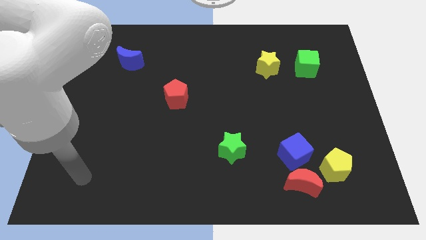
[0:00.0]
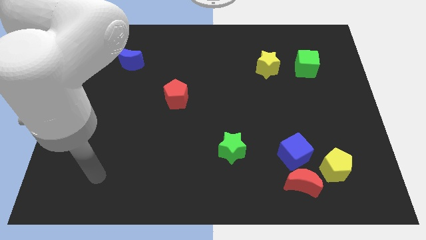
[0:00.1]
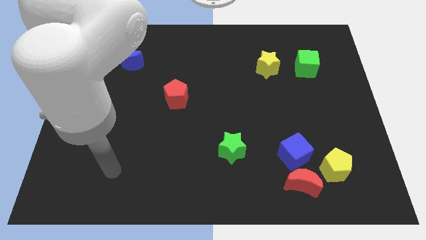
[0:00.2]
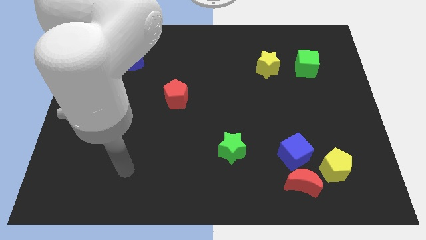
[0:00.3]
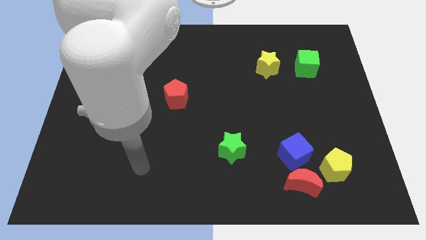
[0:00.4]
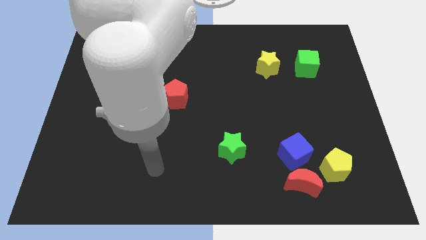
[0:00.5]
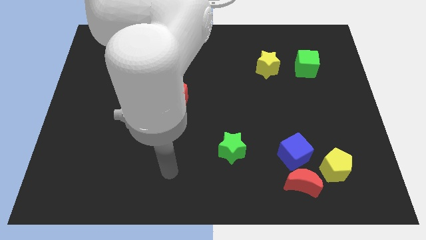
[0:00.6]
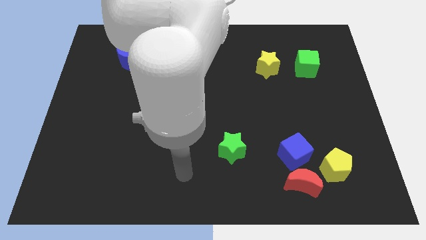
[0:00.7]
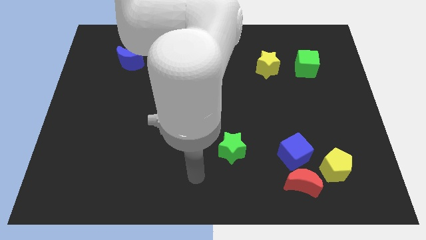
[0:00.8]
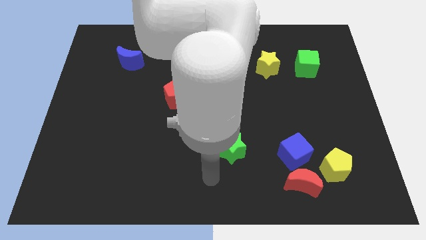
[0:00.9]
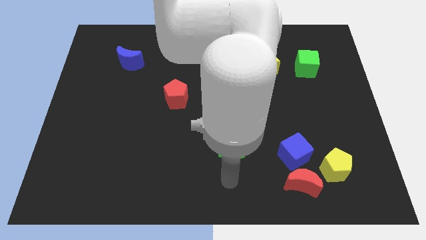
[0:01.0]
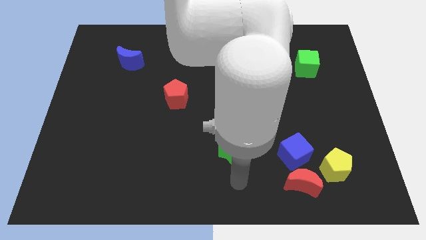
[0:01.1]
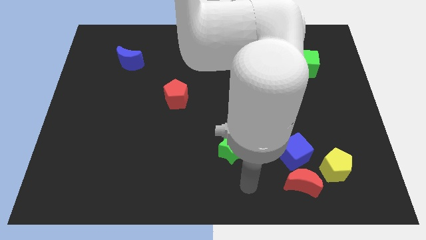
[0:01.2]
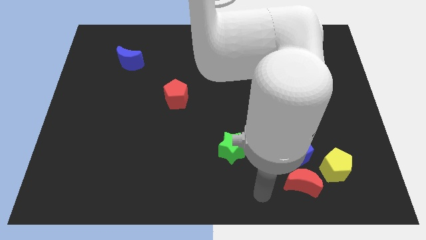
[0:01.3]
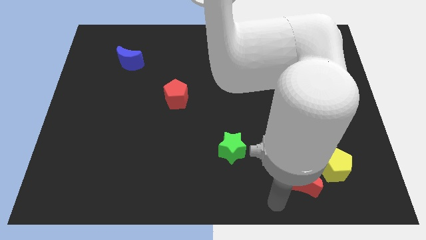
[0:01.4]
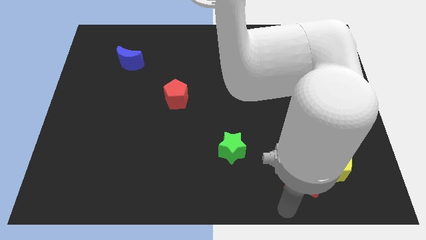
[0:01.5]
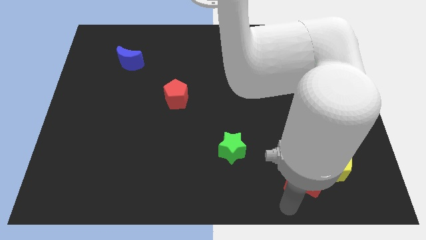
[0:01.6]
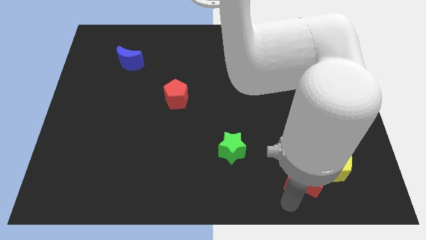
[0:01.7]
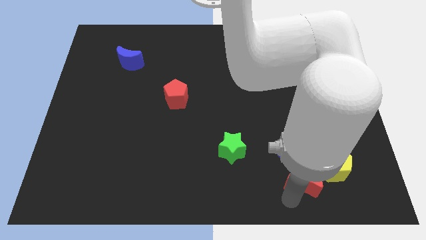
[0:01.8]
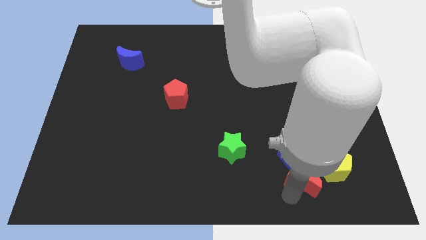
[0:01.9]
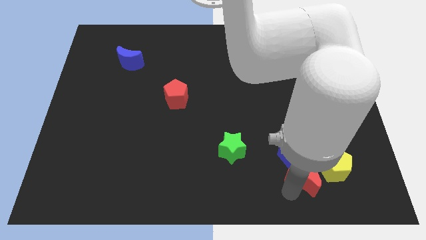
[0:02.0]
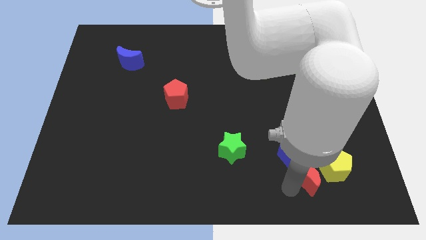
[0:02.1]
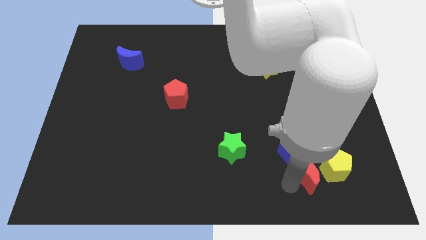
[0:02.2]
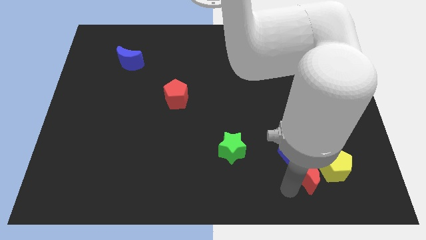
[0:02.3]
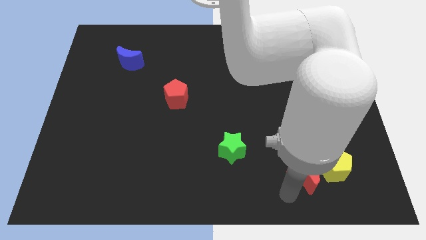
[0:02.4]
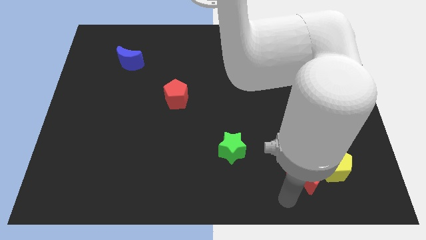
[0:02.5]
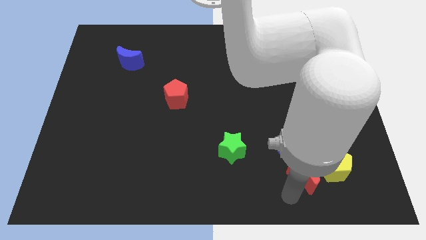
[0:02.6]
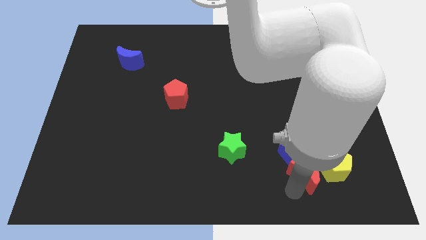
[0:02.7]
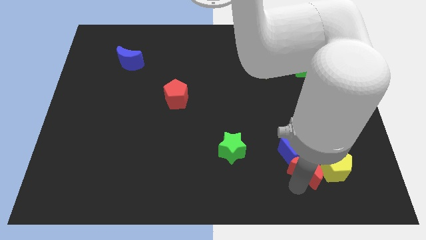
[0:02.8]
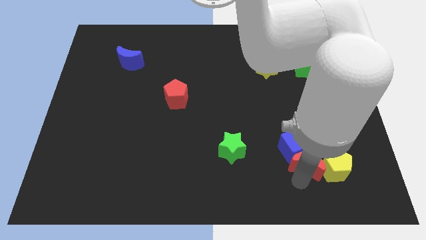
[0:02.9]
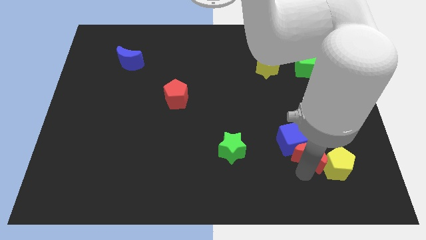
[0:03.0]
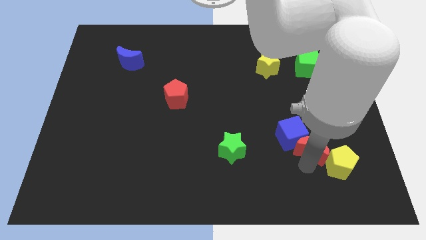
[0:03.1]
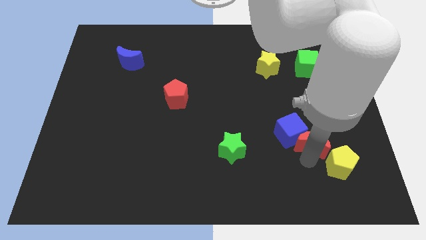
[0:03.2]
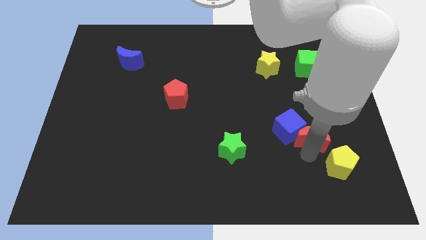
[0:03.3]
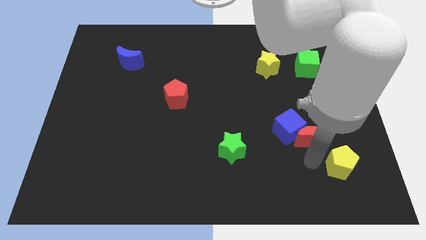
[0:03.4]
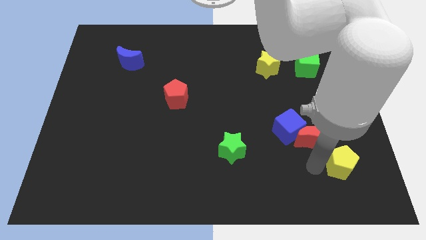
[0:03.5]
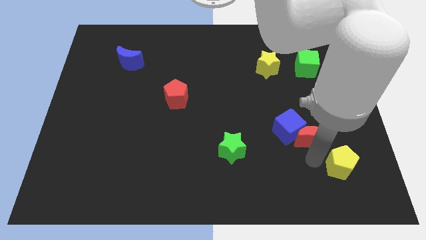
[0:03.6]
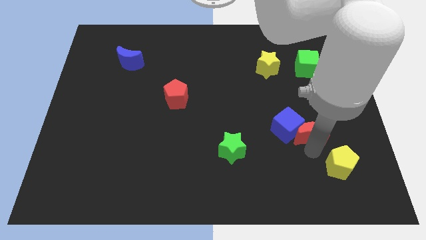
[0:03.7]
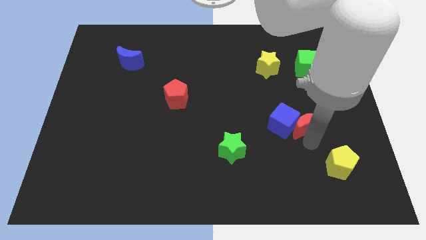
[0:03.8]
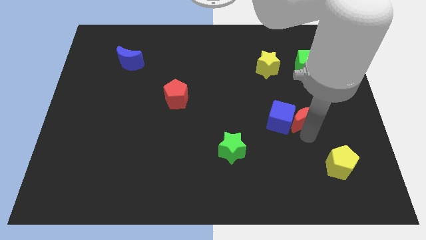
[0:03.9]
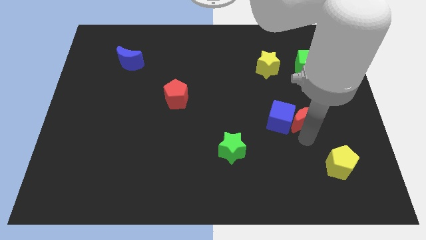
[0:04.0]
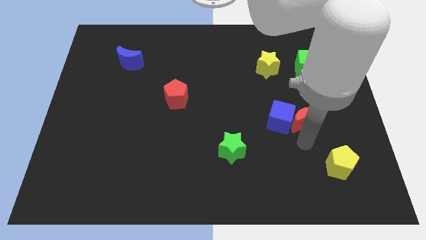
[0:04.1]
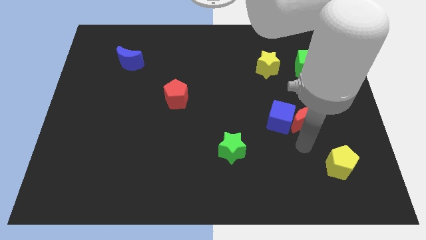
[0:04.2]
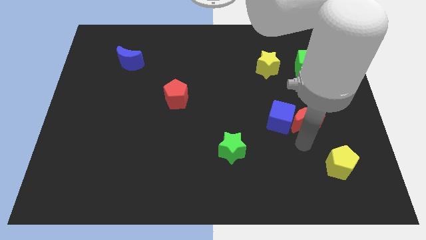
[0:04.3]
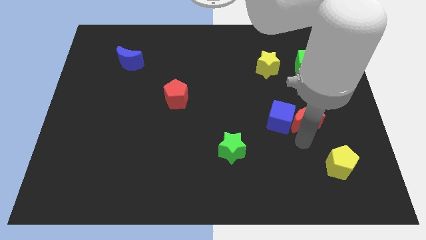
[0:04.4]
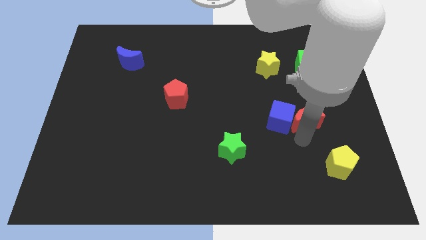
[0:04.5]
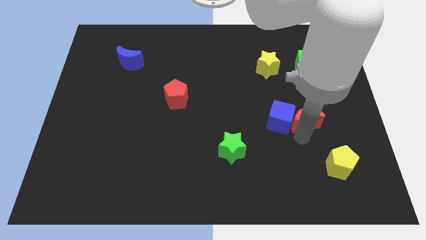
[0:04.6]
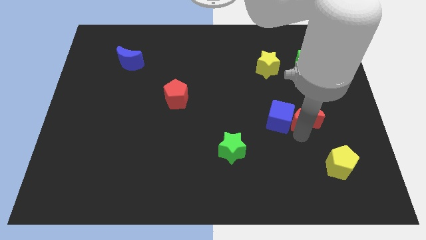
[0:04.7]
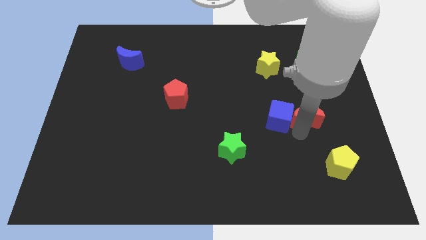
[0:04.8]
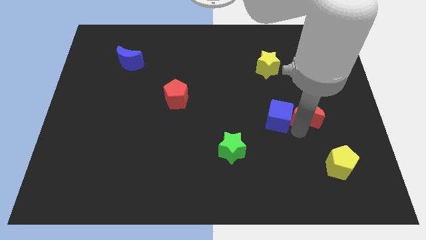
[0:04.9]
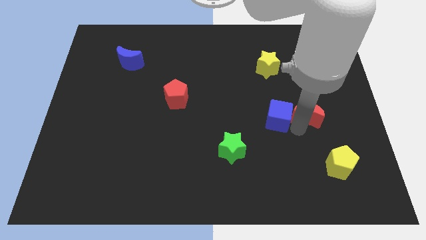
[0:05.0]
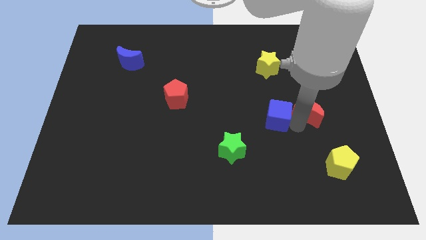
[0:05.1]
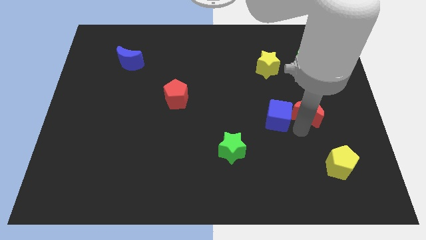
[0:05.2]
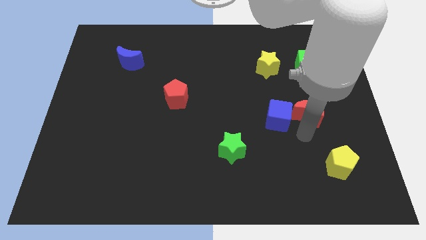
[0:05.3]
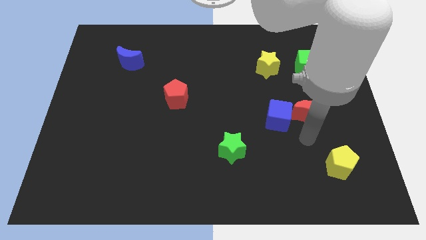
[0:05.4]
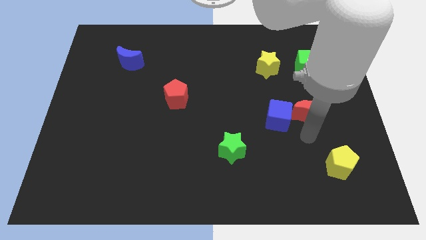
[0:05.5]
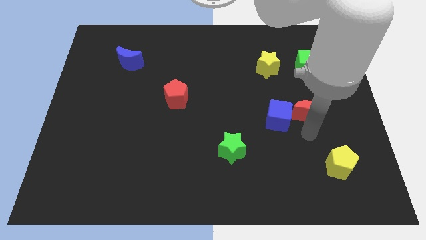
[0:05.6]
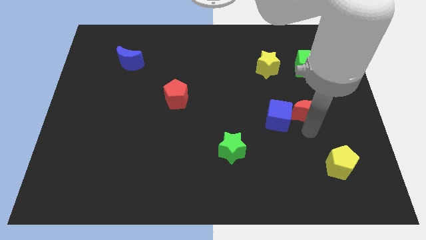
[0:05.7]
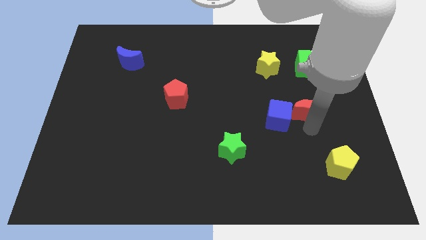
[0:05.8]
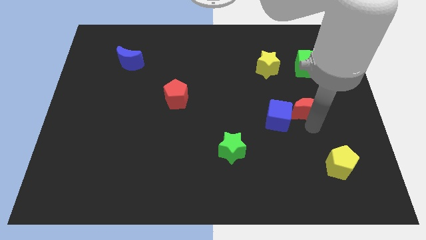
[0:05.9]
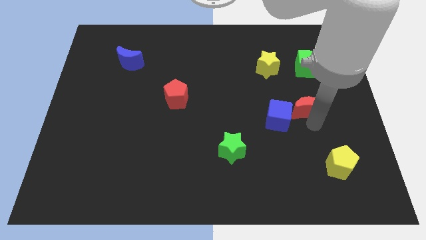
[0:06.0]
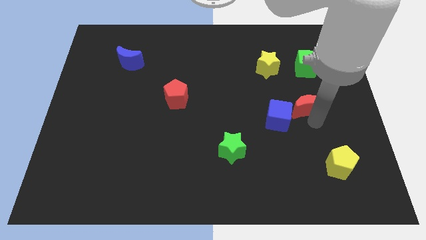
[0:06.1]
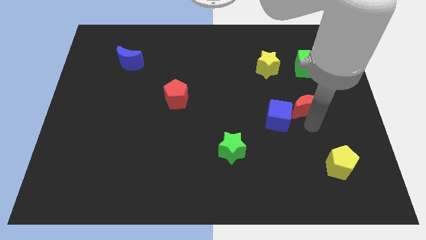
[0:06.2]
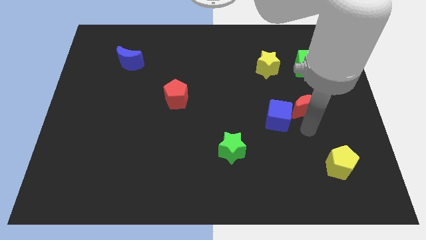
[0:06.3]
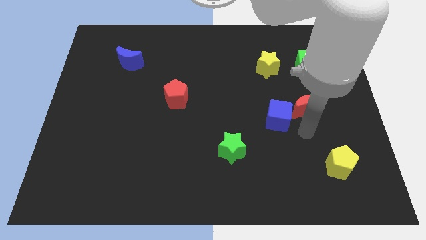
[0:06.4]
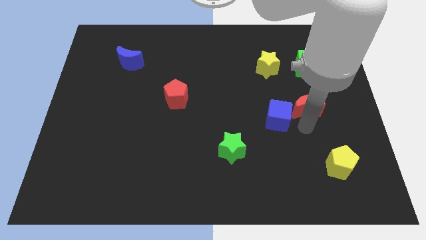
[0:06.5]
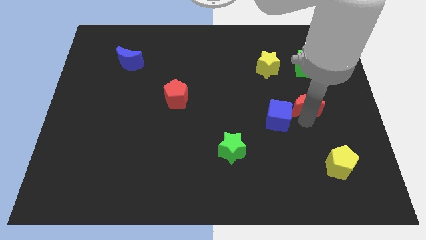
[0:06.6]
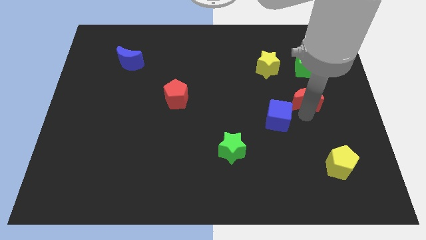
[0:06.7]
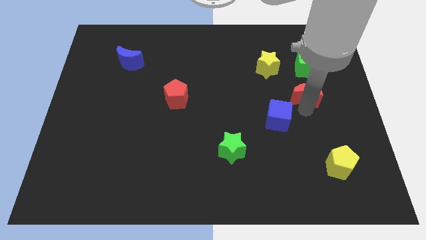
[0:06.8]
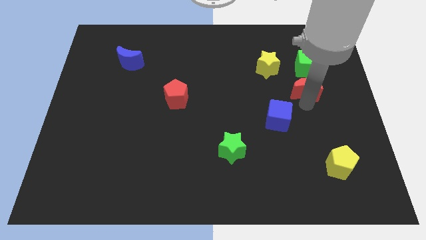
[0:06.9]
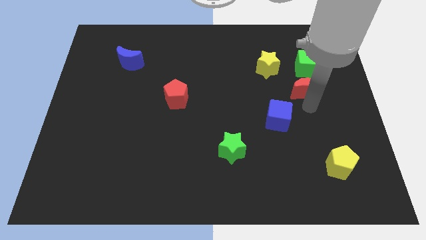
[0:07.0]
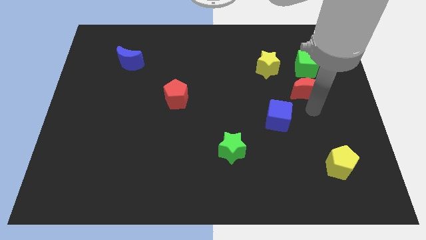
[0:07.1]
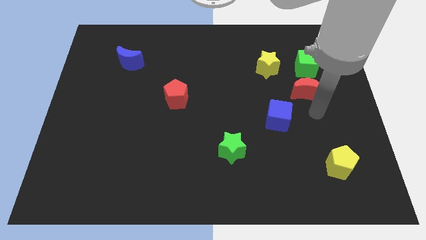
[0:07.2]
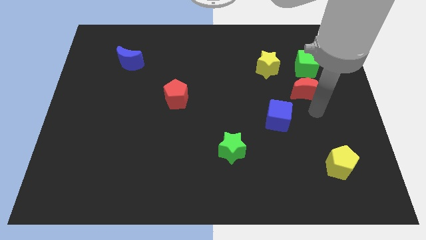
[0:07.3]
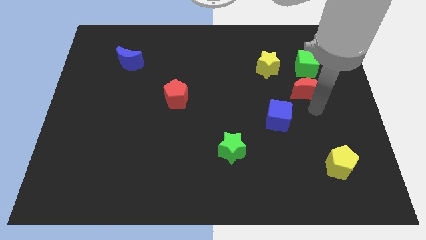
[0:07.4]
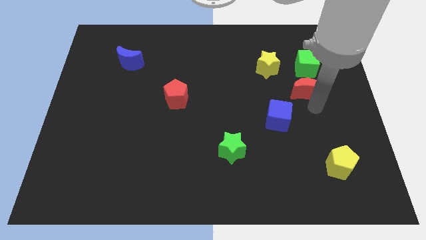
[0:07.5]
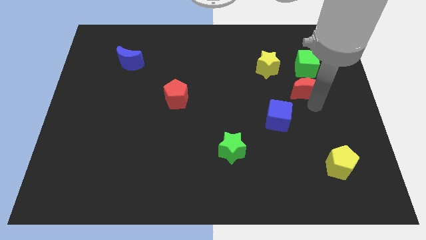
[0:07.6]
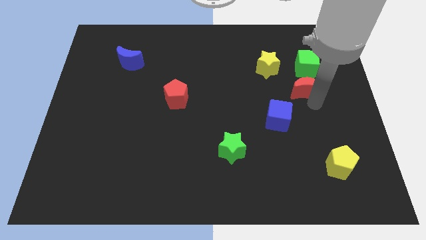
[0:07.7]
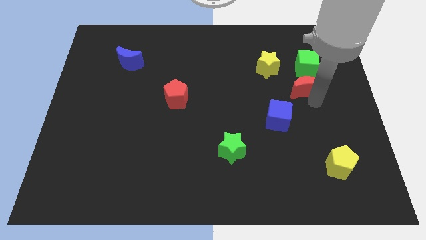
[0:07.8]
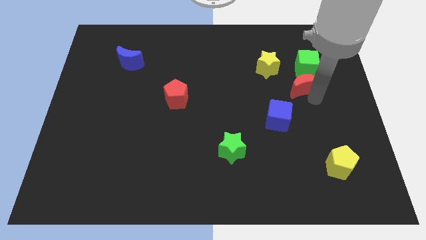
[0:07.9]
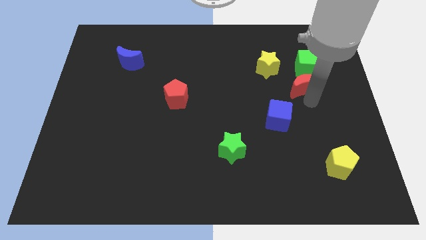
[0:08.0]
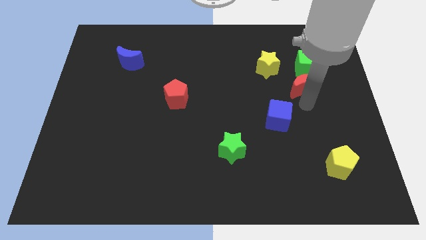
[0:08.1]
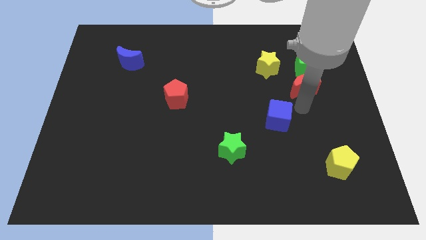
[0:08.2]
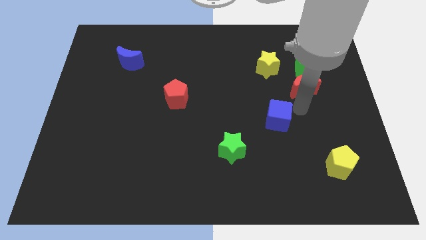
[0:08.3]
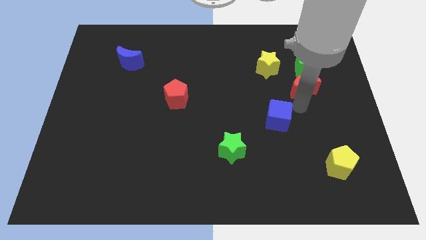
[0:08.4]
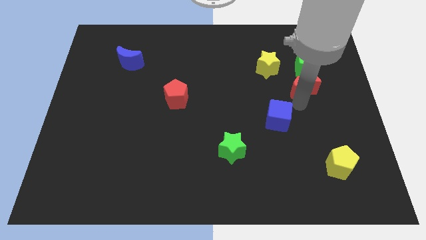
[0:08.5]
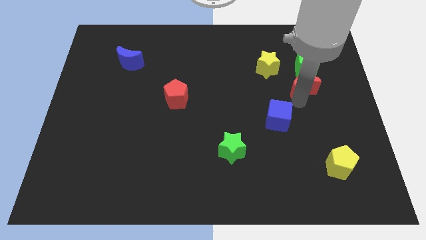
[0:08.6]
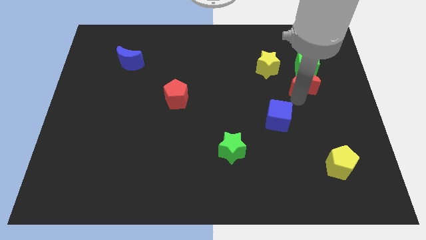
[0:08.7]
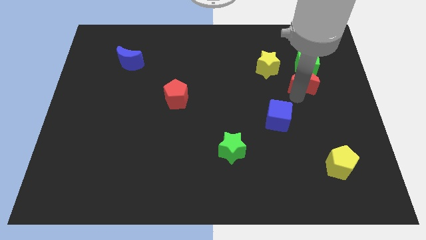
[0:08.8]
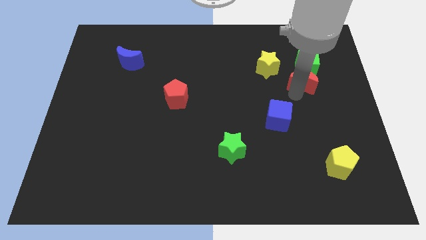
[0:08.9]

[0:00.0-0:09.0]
push the red moon to the green cube
